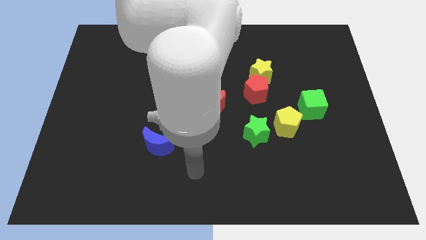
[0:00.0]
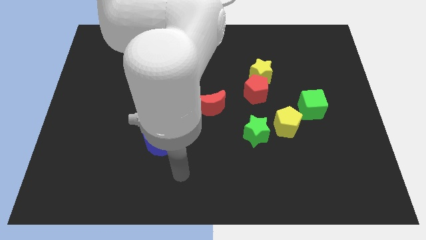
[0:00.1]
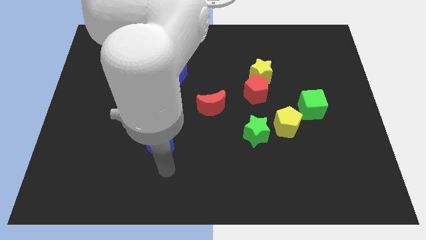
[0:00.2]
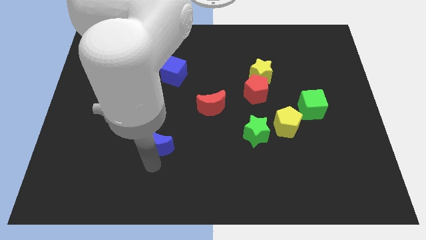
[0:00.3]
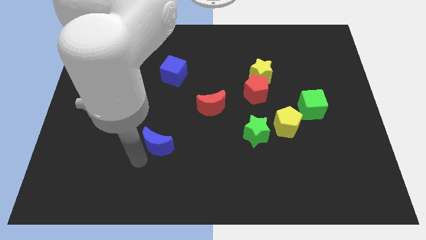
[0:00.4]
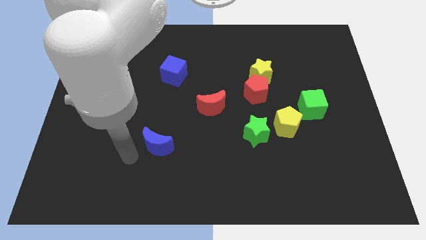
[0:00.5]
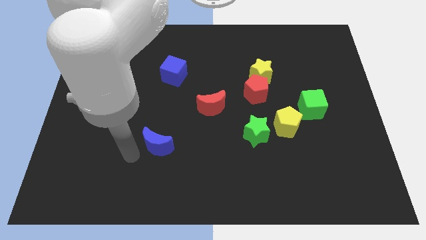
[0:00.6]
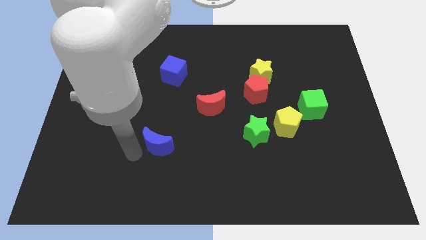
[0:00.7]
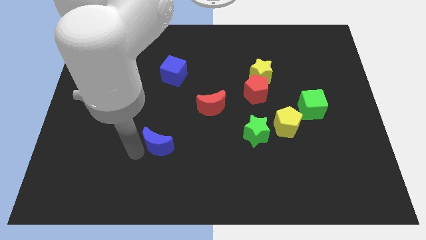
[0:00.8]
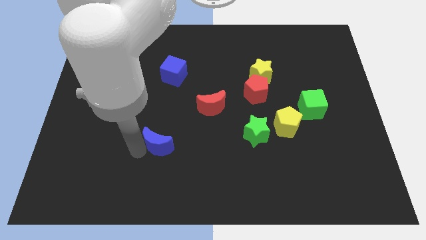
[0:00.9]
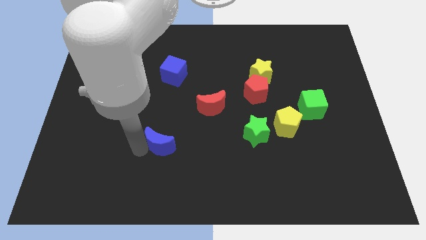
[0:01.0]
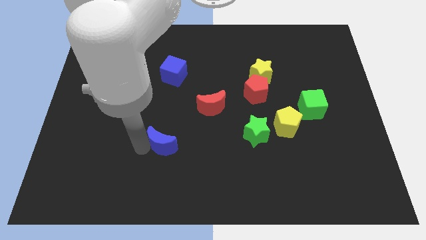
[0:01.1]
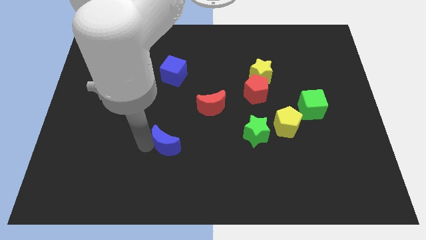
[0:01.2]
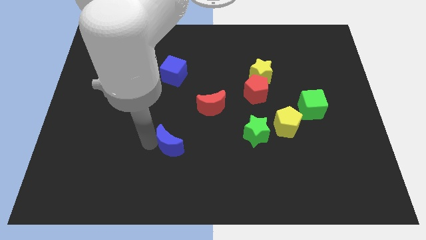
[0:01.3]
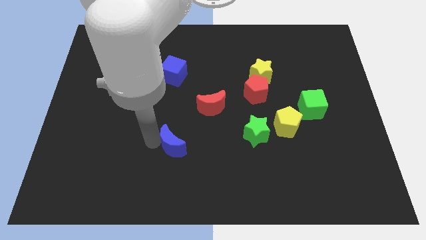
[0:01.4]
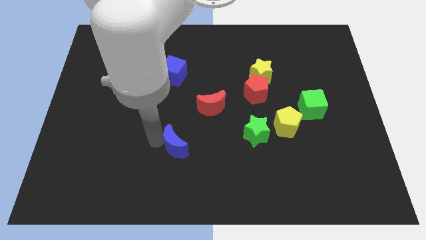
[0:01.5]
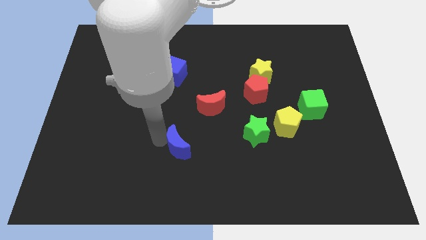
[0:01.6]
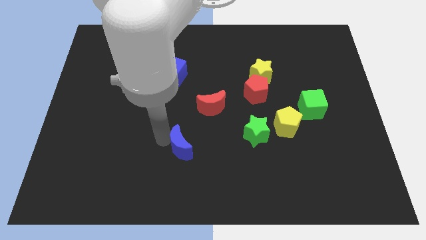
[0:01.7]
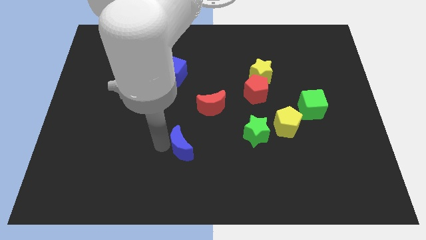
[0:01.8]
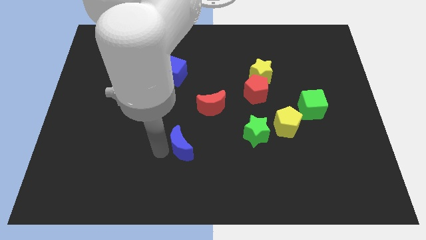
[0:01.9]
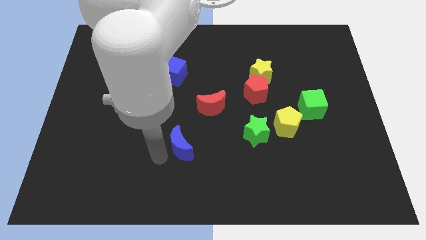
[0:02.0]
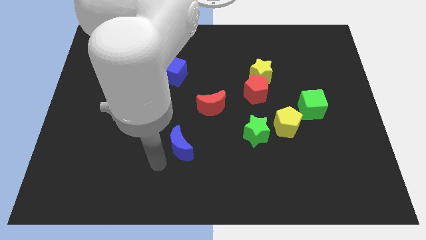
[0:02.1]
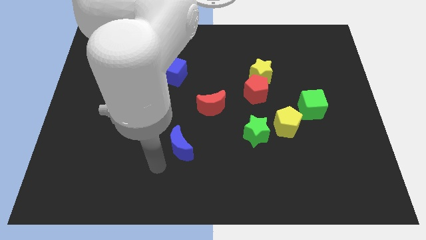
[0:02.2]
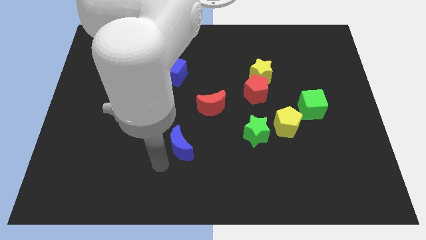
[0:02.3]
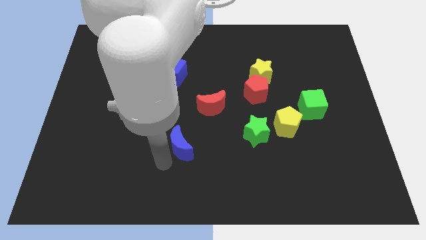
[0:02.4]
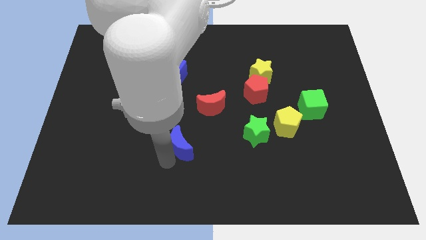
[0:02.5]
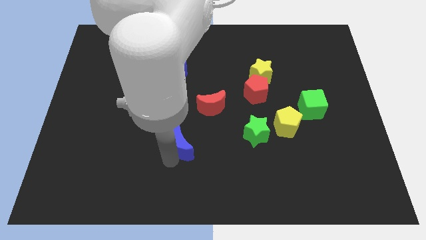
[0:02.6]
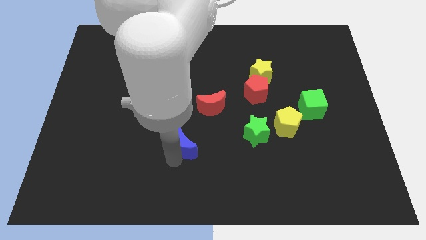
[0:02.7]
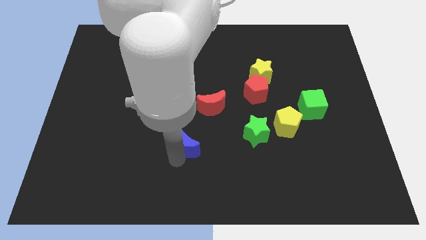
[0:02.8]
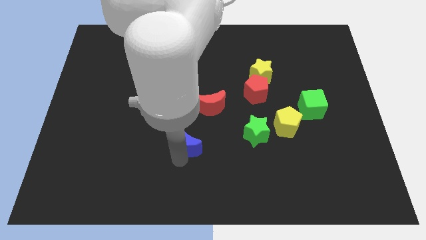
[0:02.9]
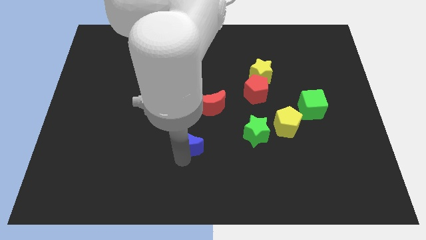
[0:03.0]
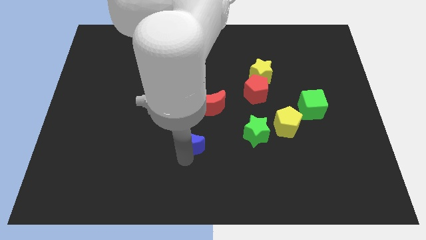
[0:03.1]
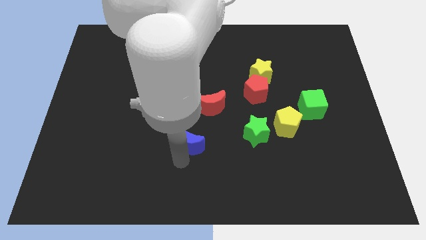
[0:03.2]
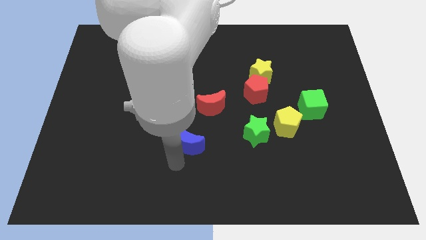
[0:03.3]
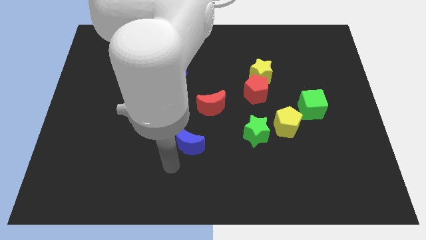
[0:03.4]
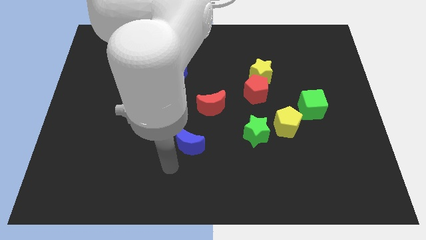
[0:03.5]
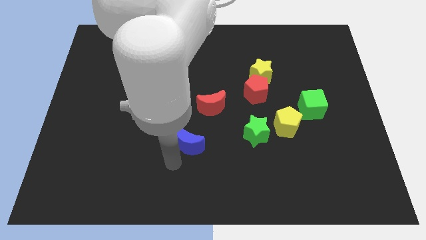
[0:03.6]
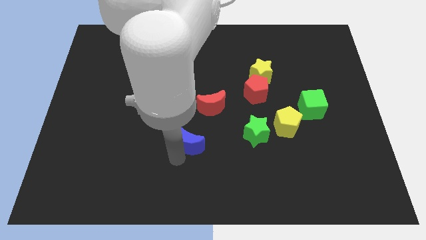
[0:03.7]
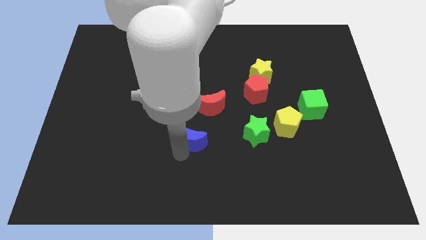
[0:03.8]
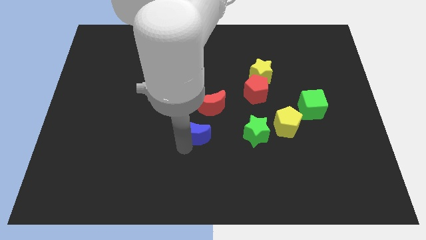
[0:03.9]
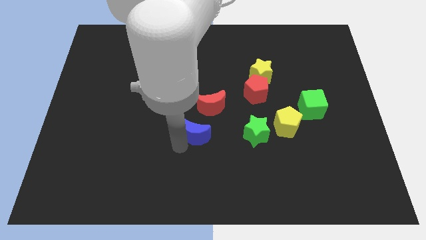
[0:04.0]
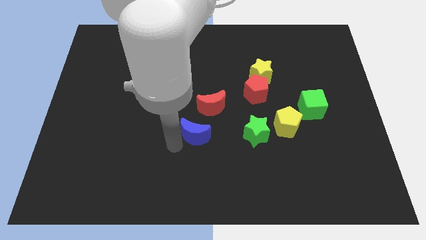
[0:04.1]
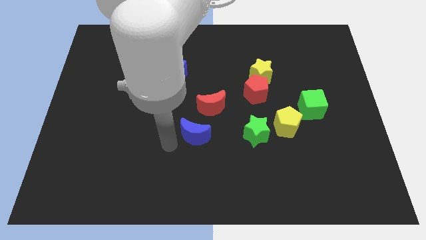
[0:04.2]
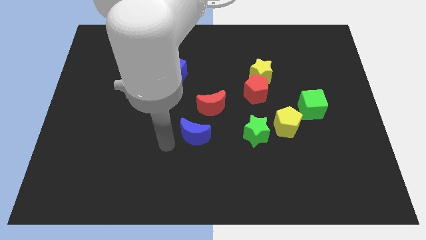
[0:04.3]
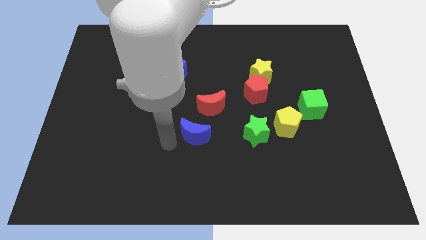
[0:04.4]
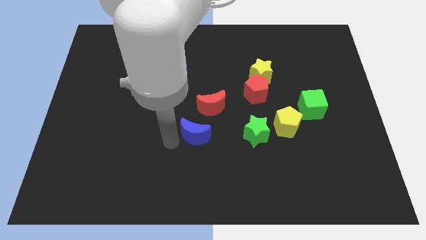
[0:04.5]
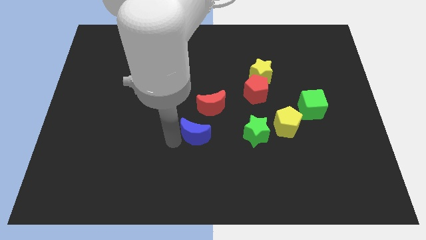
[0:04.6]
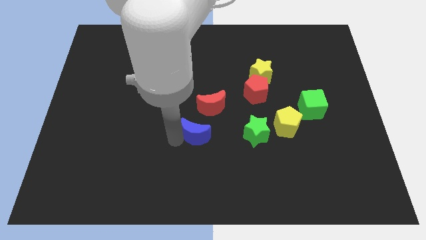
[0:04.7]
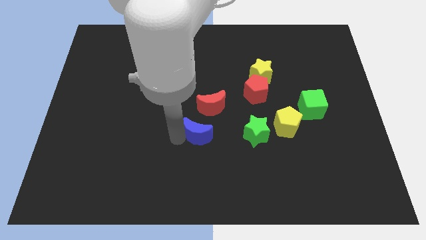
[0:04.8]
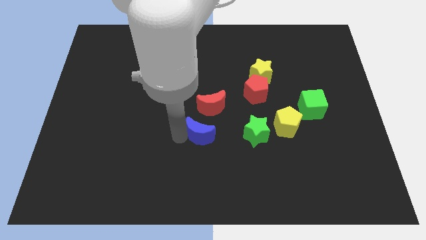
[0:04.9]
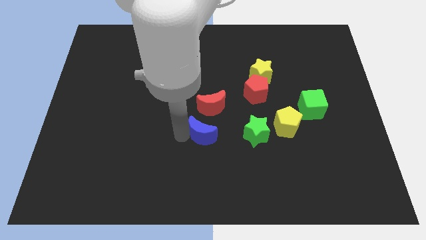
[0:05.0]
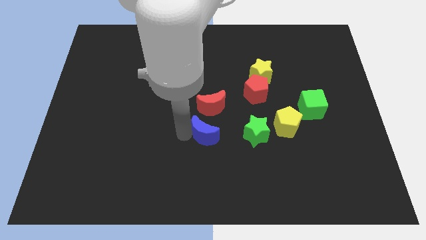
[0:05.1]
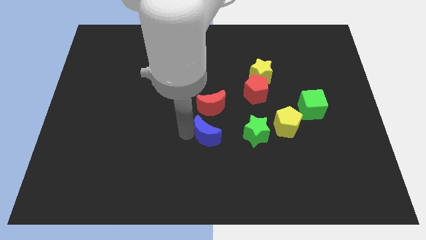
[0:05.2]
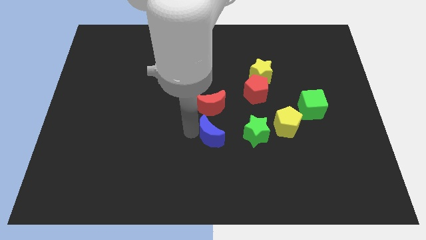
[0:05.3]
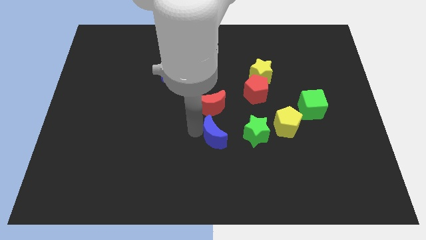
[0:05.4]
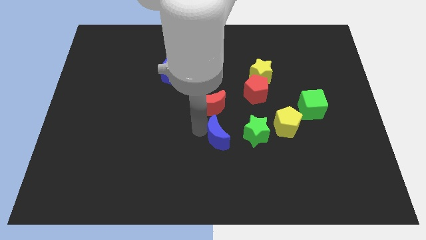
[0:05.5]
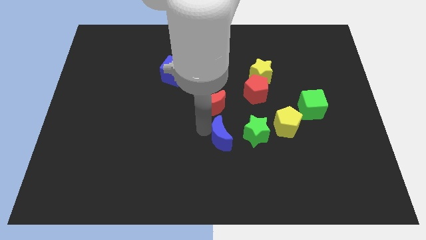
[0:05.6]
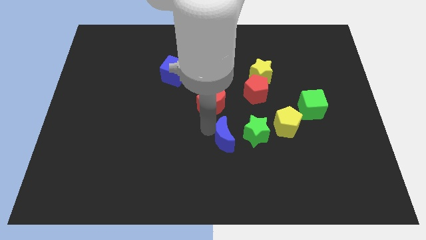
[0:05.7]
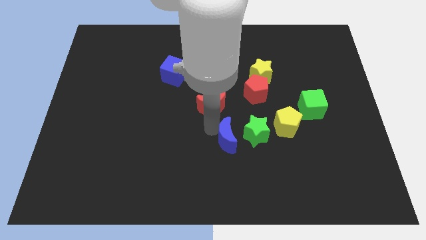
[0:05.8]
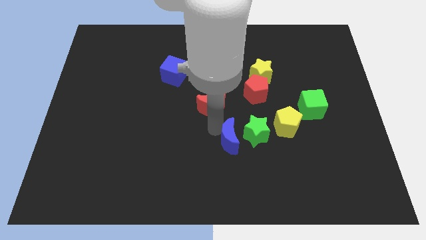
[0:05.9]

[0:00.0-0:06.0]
put the blue moon towards the green star

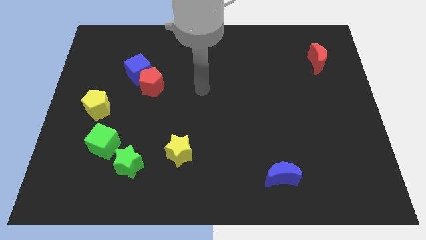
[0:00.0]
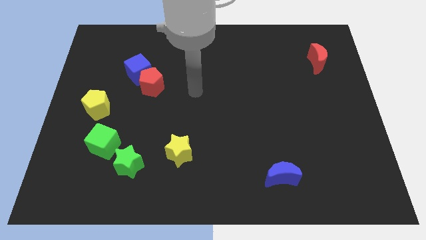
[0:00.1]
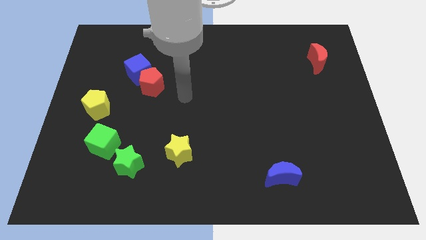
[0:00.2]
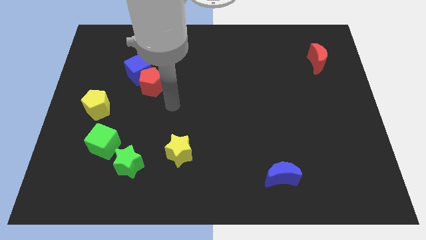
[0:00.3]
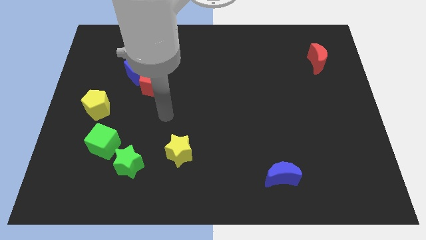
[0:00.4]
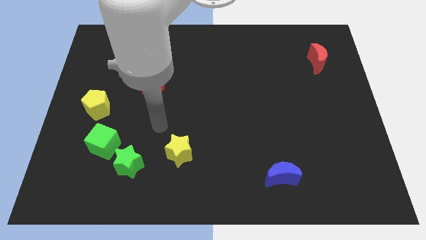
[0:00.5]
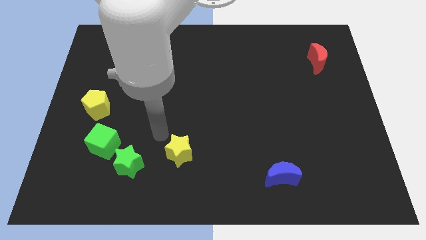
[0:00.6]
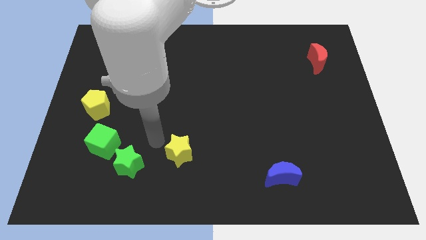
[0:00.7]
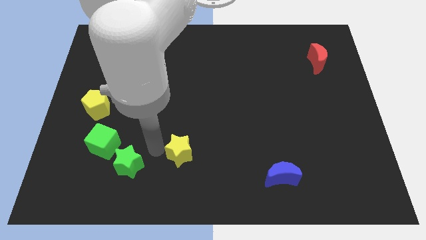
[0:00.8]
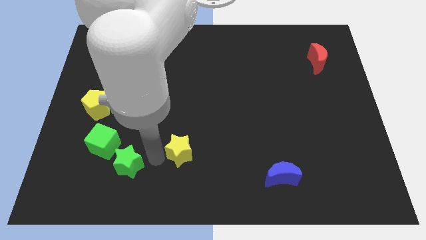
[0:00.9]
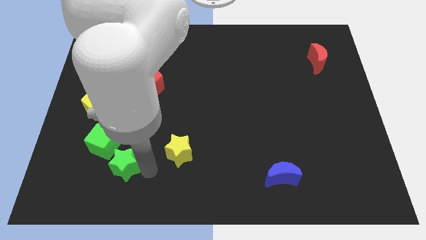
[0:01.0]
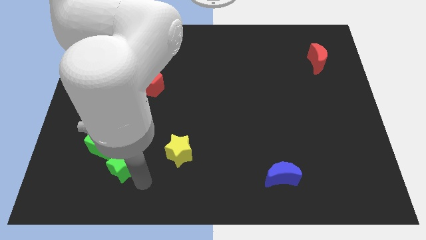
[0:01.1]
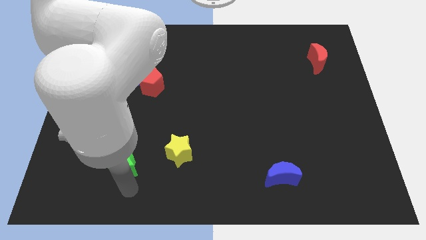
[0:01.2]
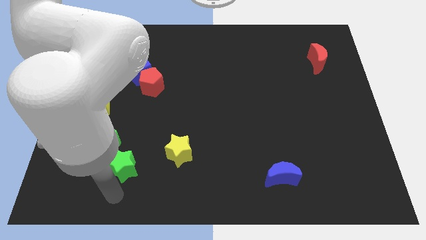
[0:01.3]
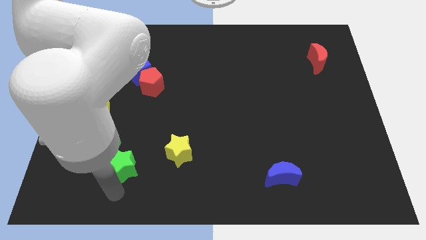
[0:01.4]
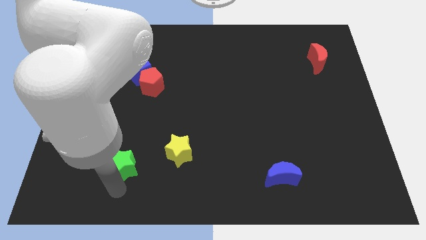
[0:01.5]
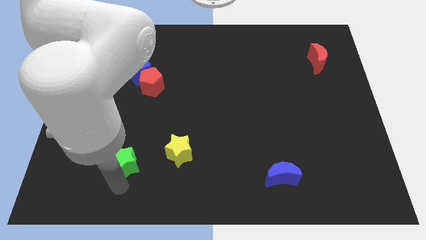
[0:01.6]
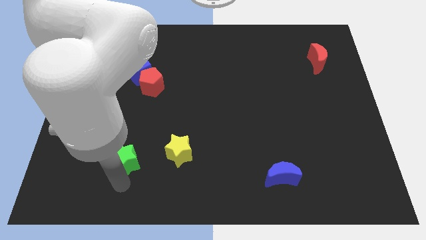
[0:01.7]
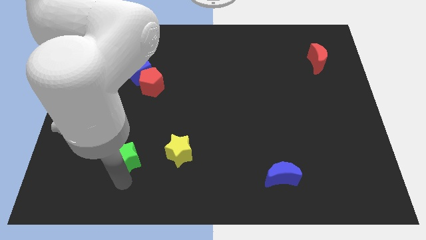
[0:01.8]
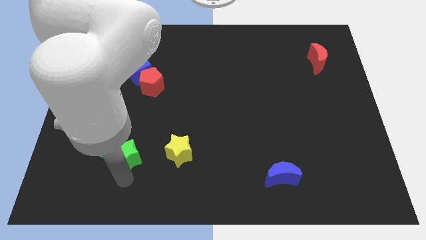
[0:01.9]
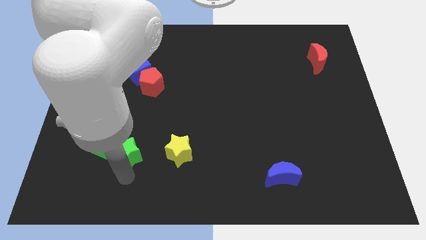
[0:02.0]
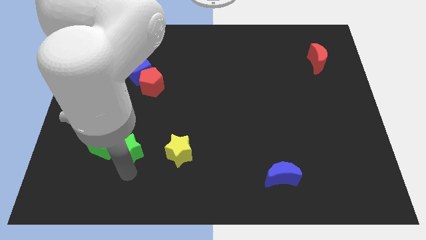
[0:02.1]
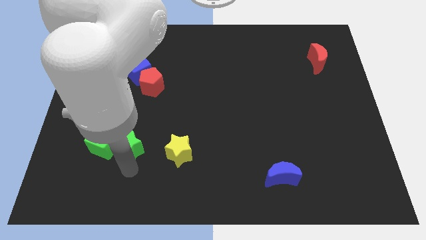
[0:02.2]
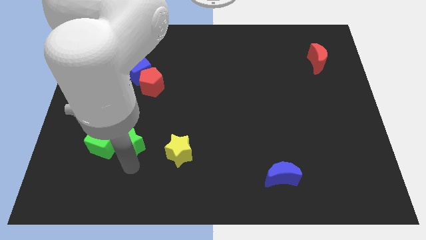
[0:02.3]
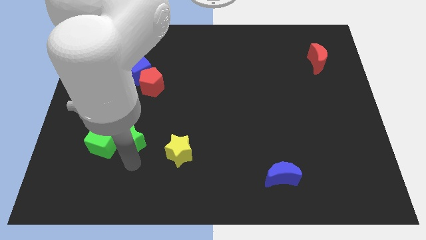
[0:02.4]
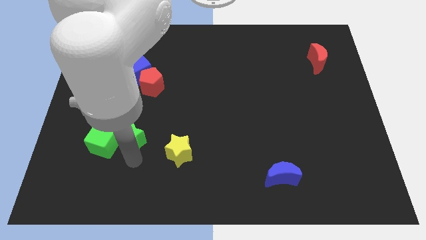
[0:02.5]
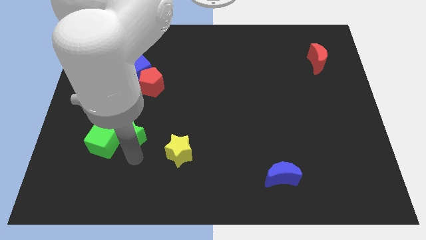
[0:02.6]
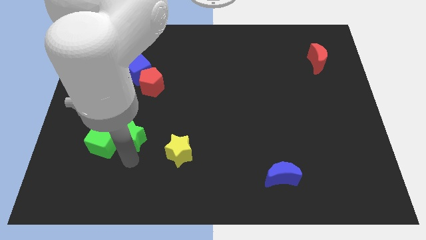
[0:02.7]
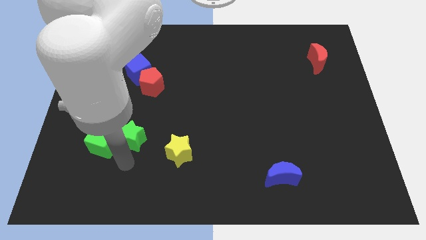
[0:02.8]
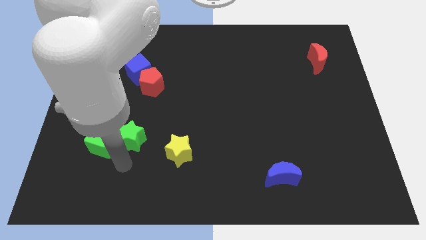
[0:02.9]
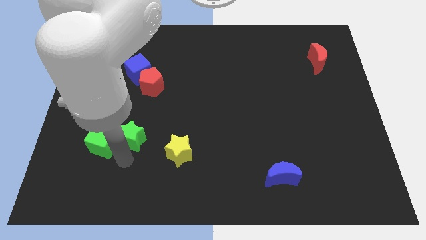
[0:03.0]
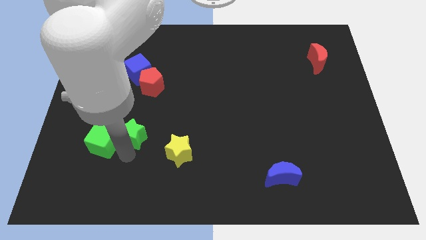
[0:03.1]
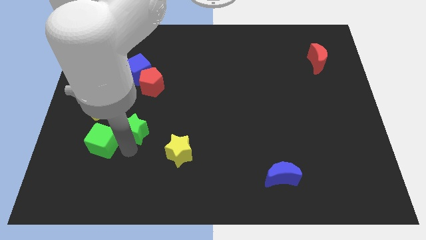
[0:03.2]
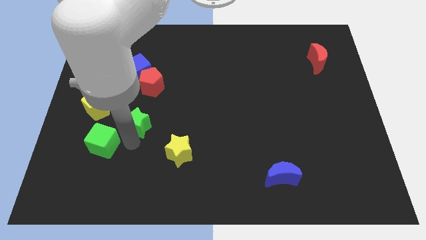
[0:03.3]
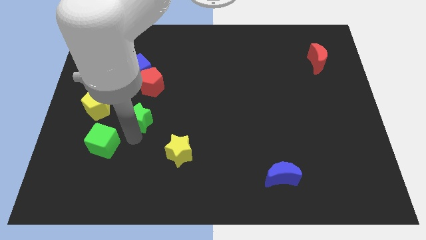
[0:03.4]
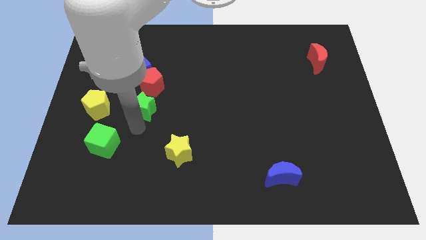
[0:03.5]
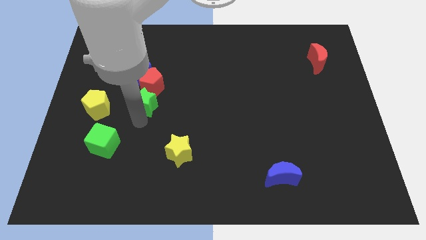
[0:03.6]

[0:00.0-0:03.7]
push the green star next to the red pentagon
